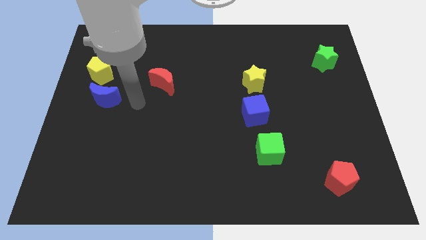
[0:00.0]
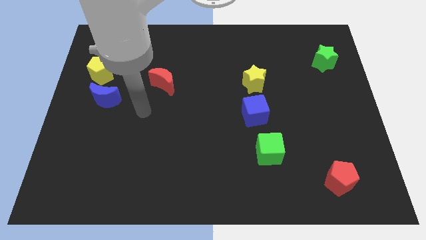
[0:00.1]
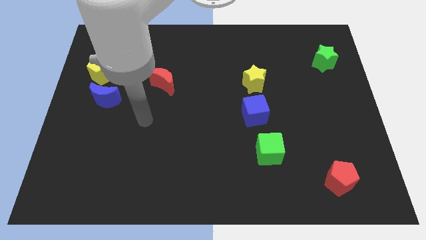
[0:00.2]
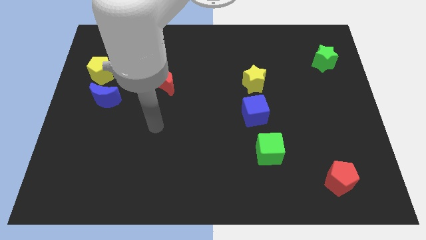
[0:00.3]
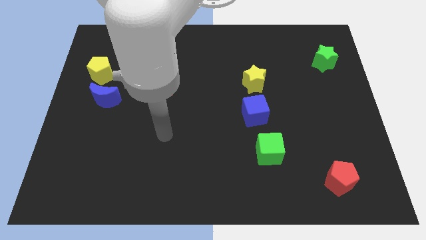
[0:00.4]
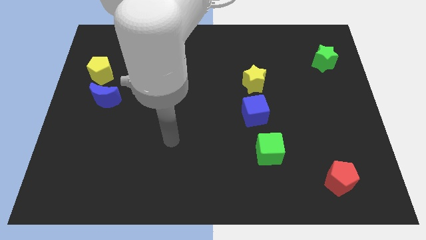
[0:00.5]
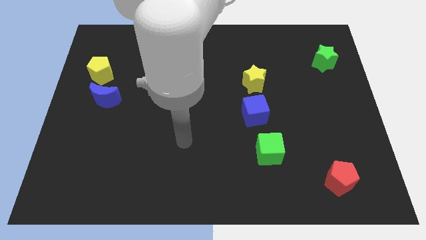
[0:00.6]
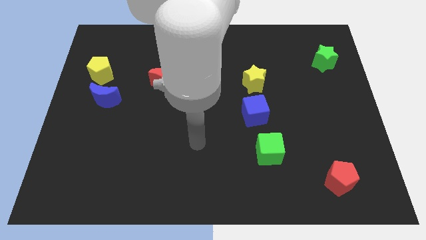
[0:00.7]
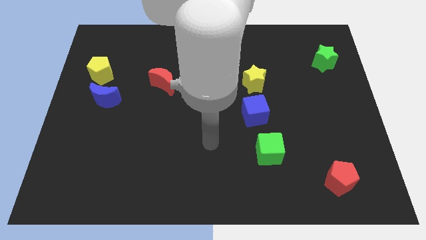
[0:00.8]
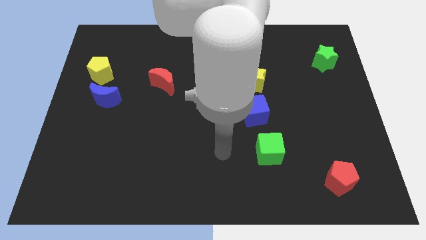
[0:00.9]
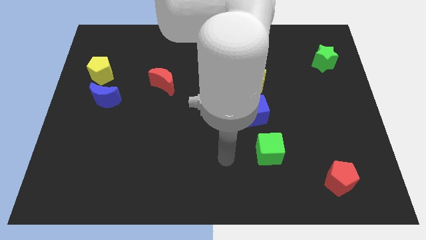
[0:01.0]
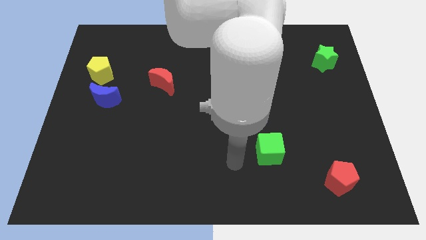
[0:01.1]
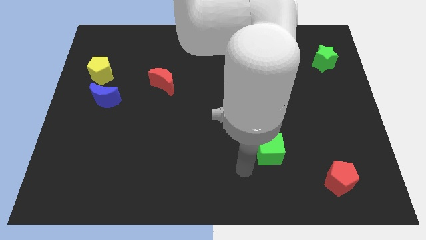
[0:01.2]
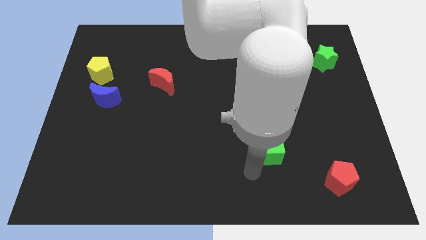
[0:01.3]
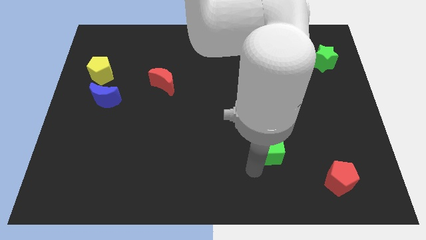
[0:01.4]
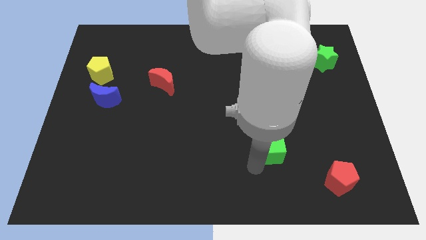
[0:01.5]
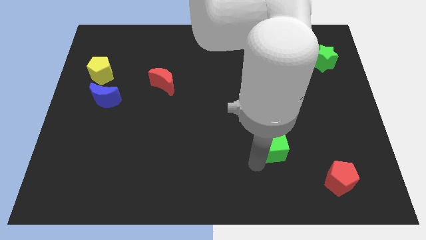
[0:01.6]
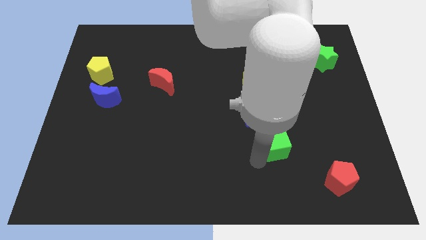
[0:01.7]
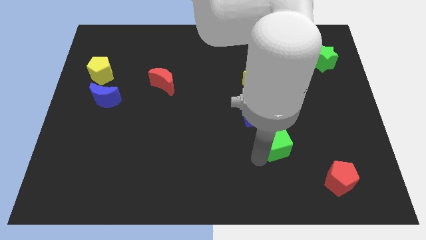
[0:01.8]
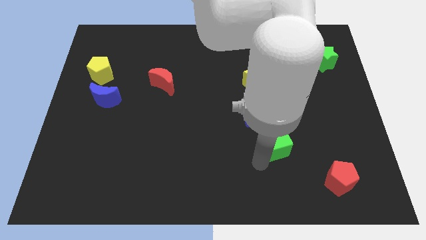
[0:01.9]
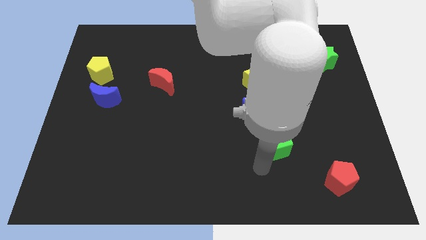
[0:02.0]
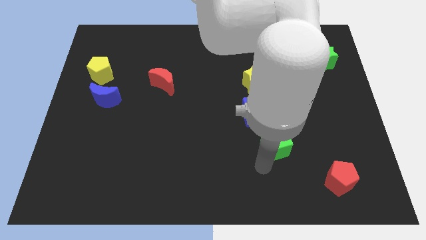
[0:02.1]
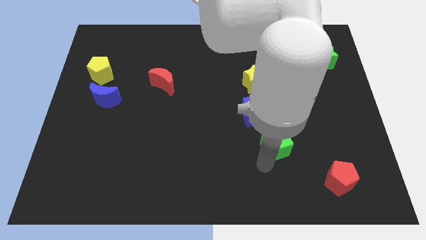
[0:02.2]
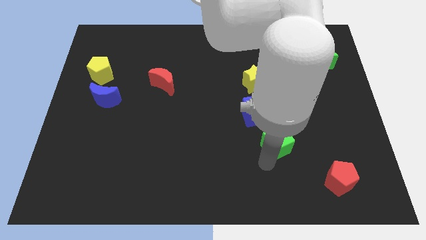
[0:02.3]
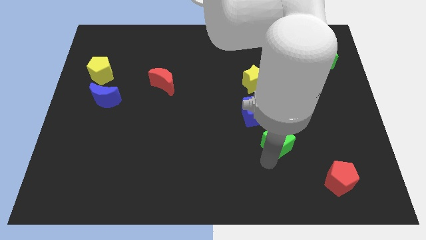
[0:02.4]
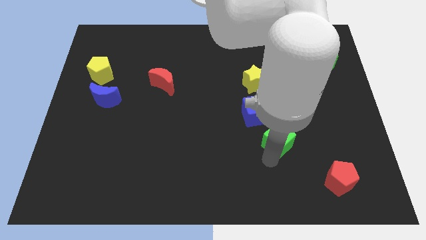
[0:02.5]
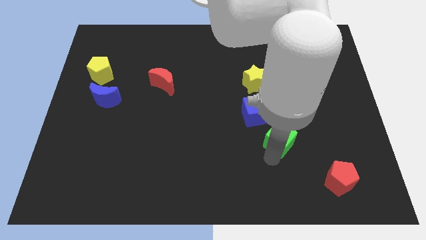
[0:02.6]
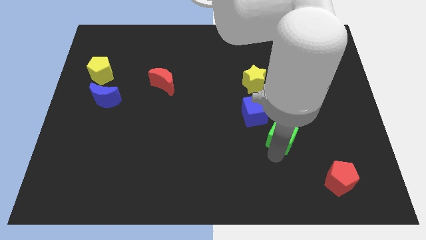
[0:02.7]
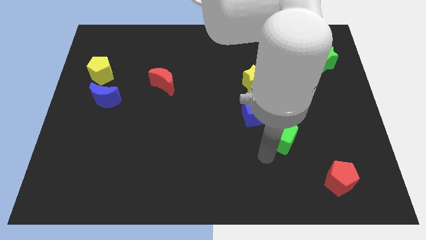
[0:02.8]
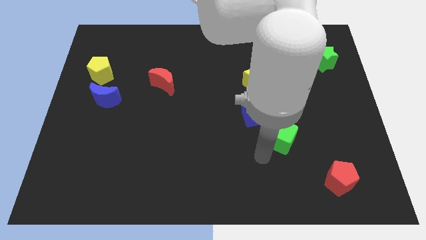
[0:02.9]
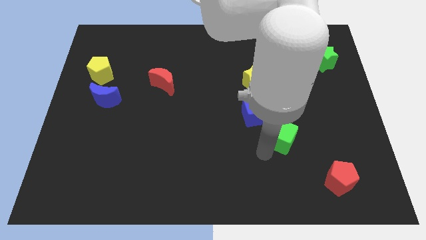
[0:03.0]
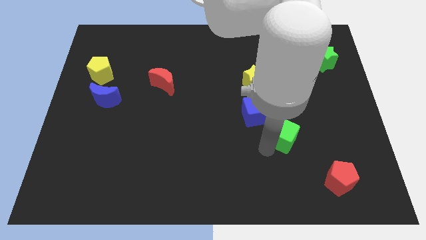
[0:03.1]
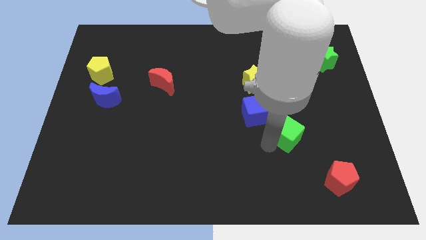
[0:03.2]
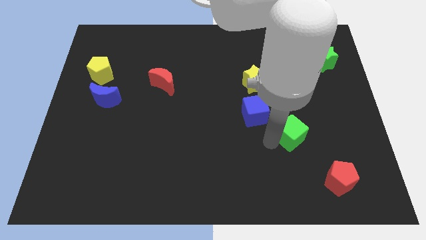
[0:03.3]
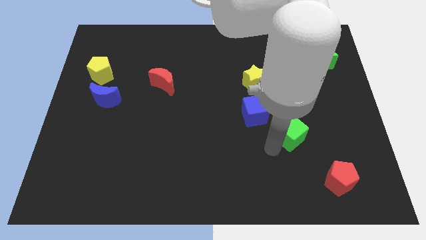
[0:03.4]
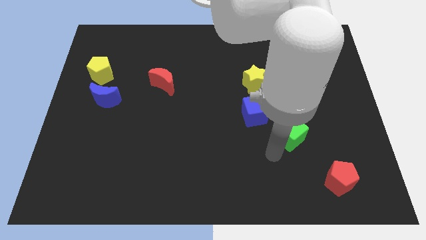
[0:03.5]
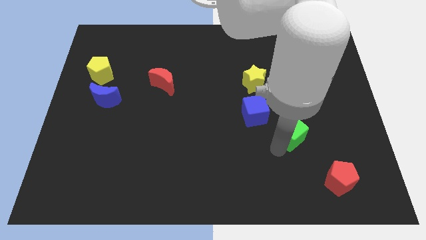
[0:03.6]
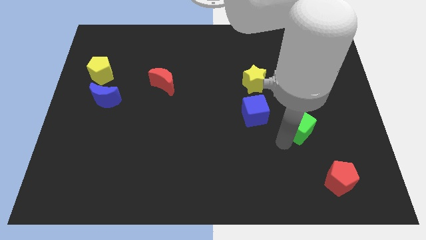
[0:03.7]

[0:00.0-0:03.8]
slide the green cube a little upwards and to the right

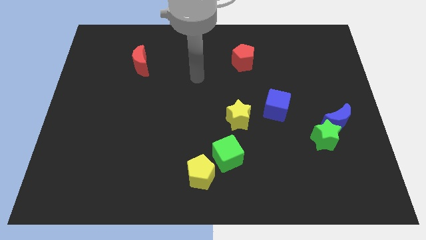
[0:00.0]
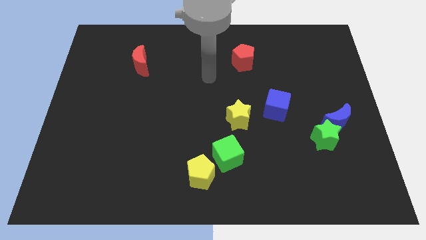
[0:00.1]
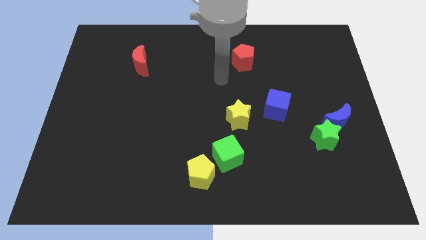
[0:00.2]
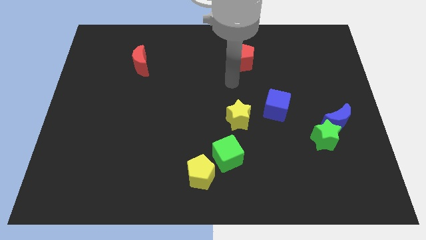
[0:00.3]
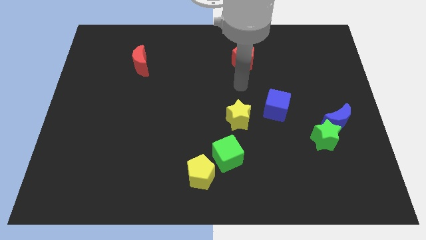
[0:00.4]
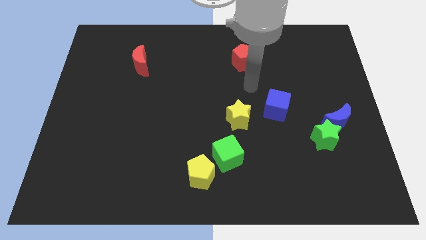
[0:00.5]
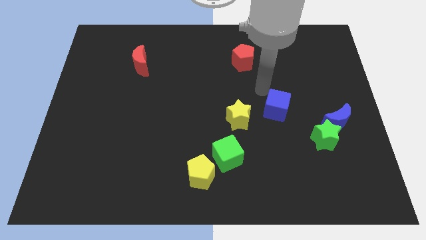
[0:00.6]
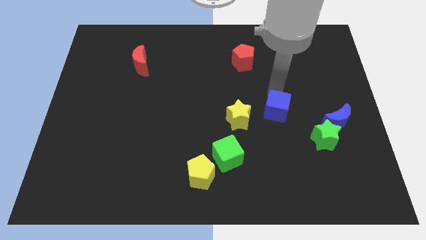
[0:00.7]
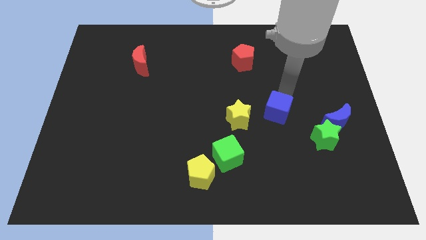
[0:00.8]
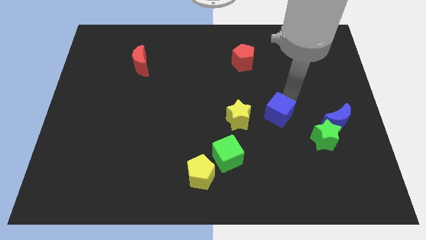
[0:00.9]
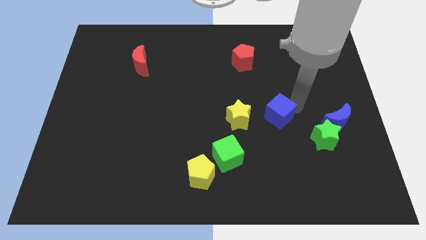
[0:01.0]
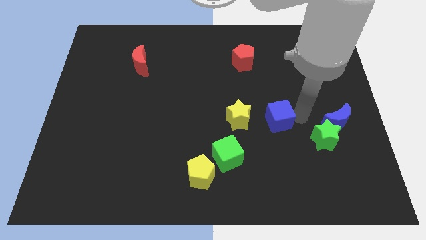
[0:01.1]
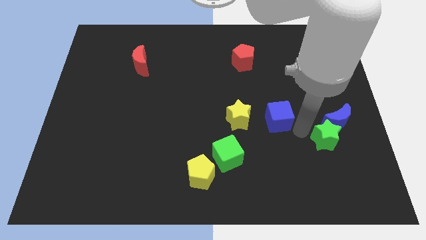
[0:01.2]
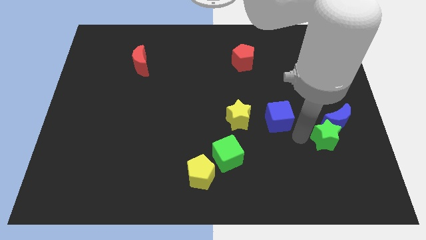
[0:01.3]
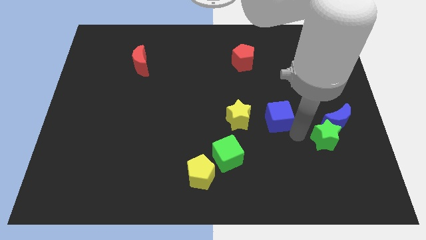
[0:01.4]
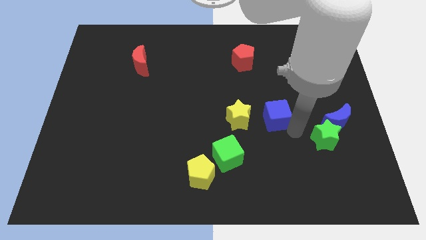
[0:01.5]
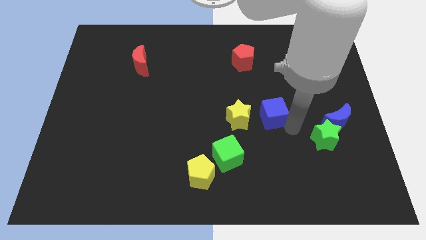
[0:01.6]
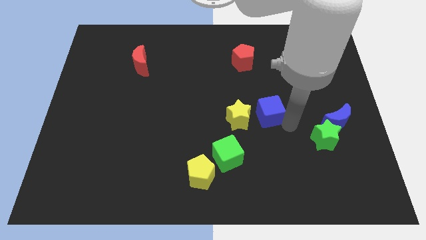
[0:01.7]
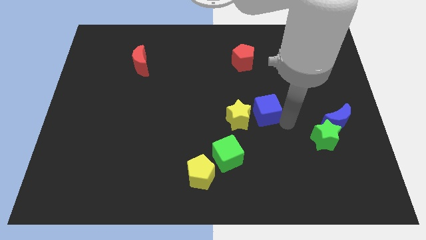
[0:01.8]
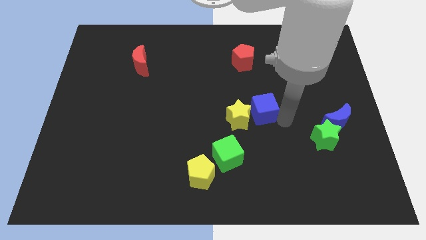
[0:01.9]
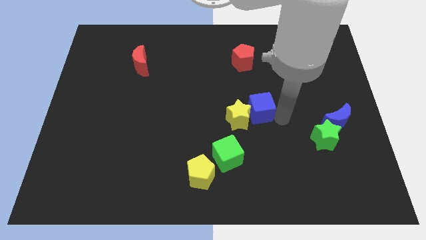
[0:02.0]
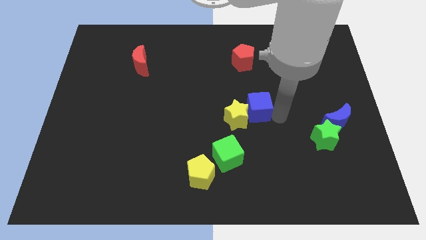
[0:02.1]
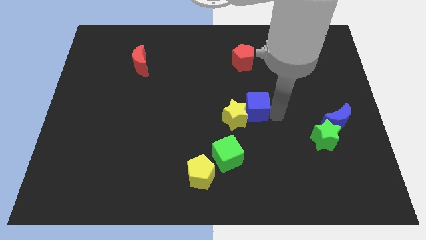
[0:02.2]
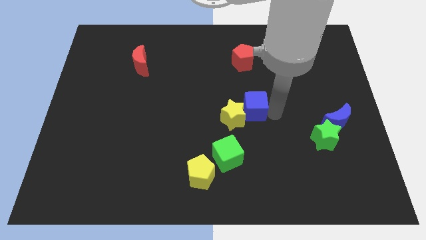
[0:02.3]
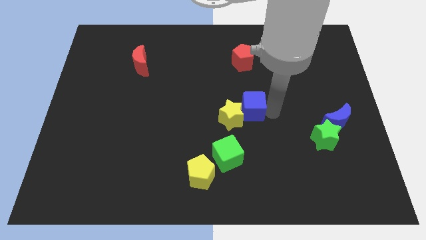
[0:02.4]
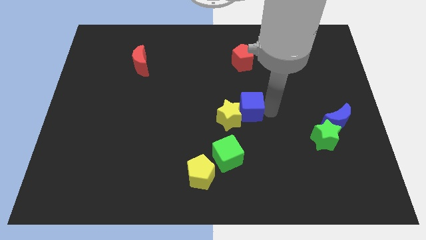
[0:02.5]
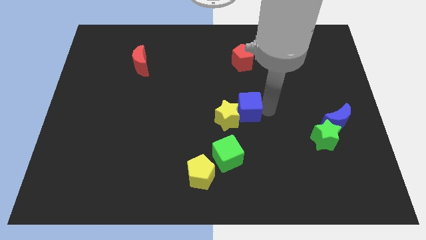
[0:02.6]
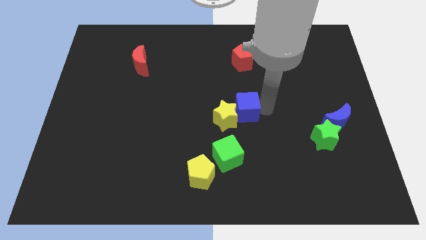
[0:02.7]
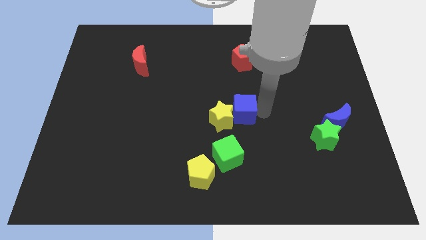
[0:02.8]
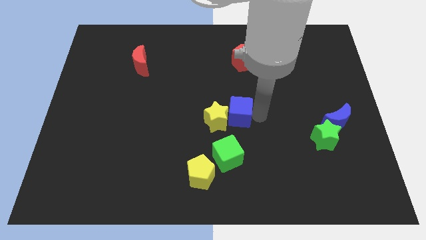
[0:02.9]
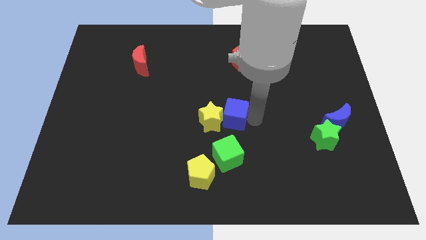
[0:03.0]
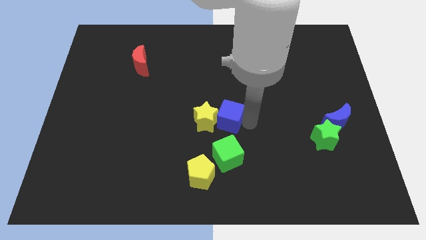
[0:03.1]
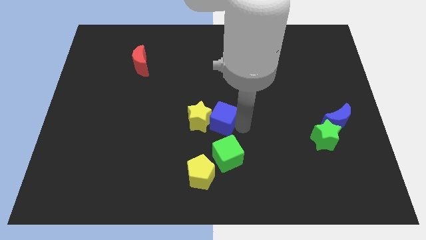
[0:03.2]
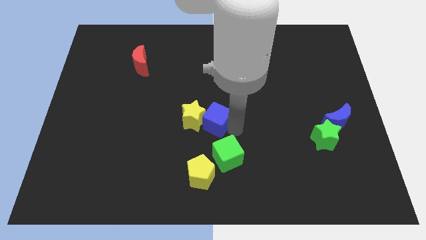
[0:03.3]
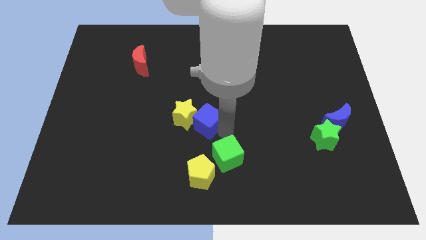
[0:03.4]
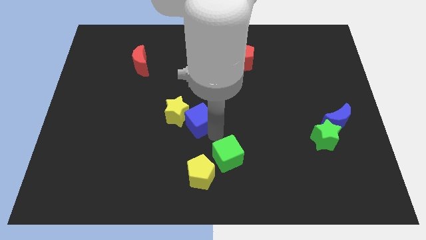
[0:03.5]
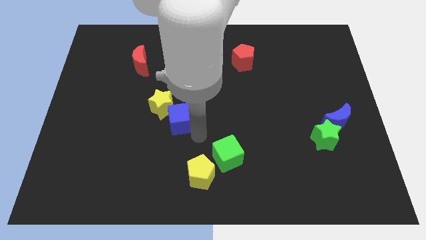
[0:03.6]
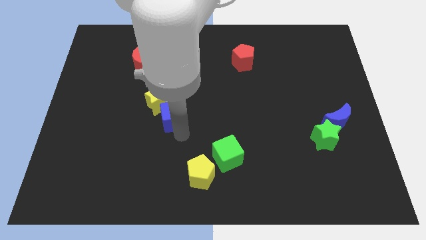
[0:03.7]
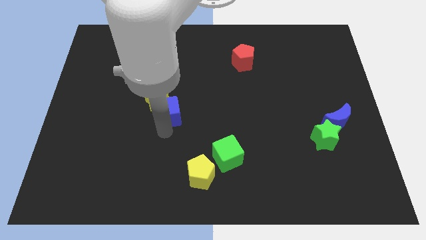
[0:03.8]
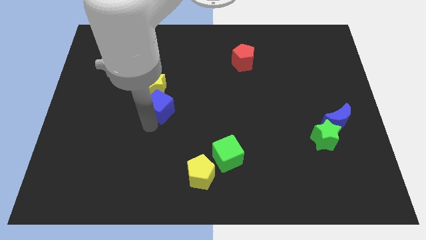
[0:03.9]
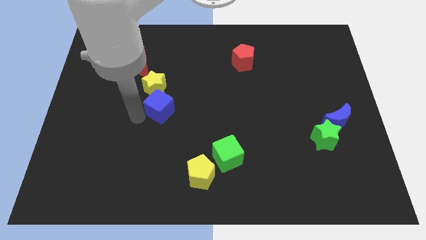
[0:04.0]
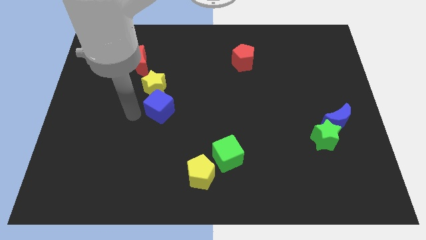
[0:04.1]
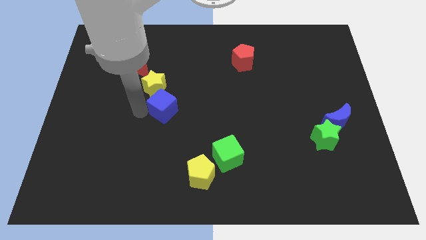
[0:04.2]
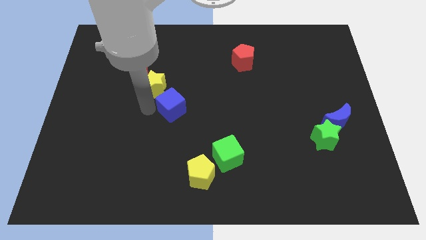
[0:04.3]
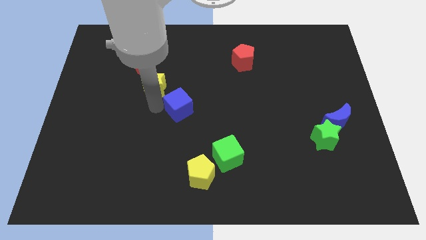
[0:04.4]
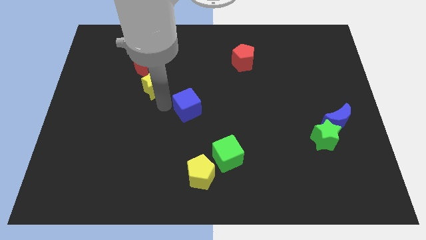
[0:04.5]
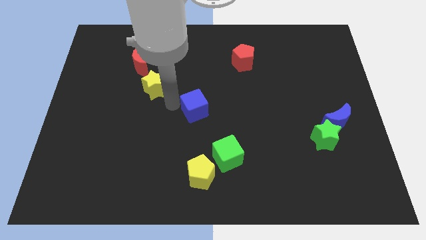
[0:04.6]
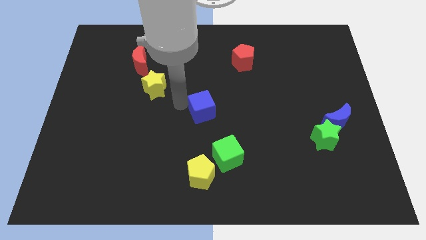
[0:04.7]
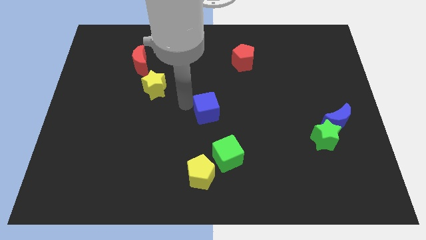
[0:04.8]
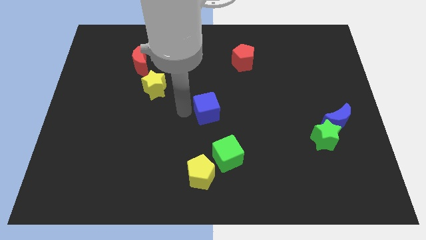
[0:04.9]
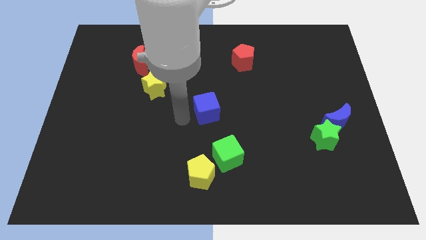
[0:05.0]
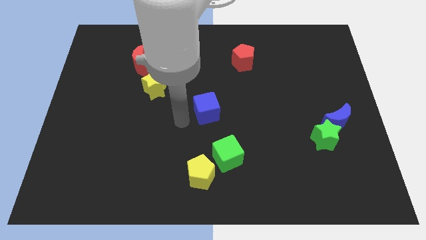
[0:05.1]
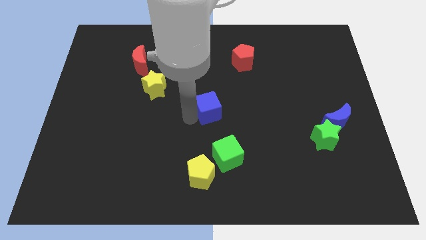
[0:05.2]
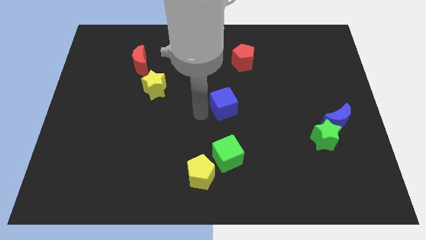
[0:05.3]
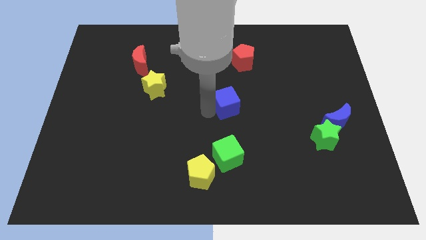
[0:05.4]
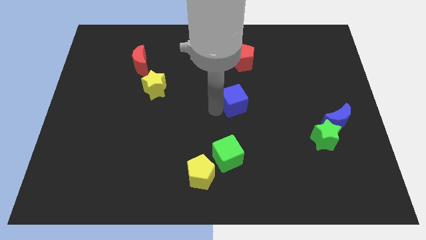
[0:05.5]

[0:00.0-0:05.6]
push the blue cube somewhat up and then to the left
